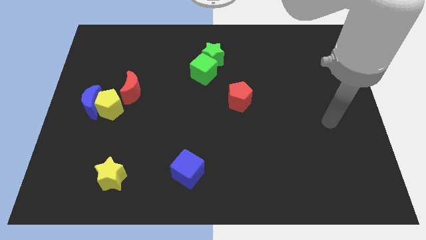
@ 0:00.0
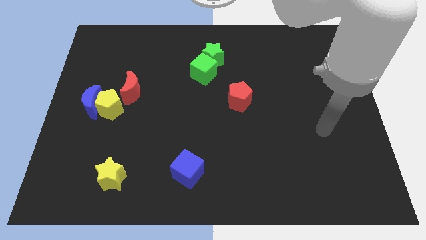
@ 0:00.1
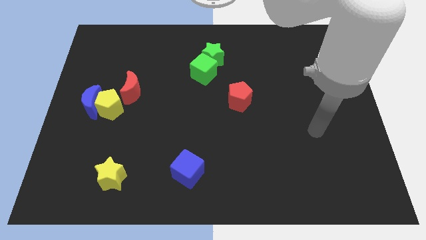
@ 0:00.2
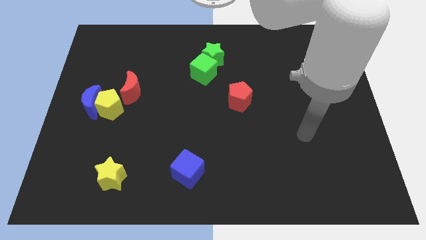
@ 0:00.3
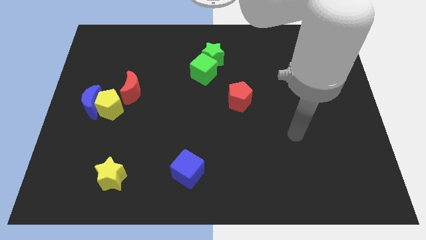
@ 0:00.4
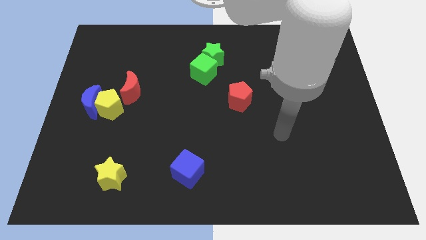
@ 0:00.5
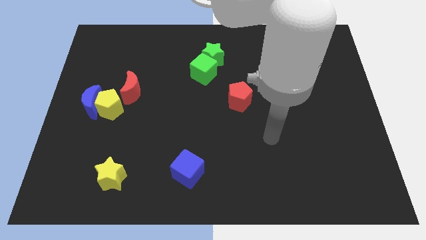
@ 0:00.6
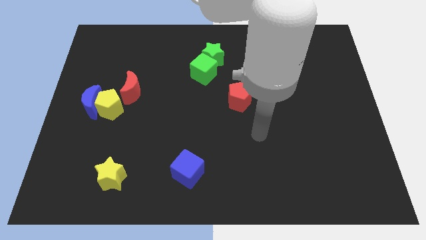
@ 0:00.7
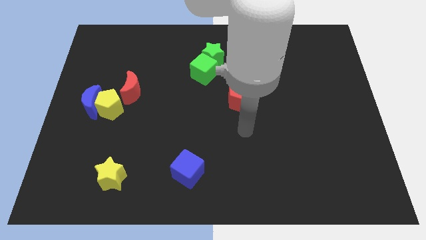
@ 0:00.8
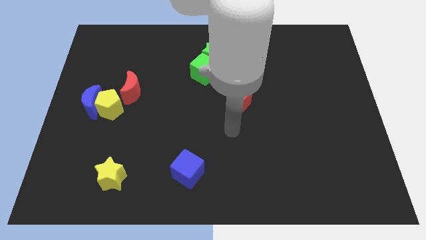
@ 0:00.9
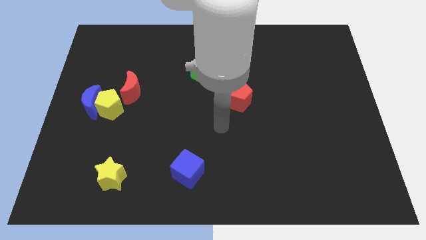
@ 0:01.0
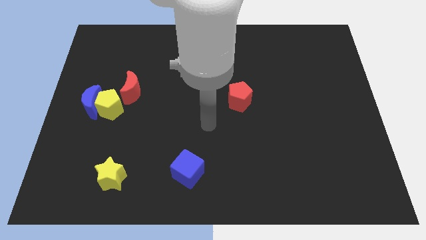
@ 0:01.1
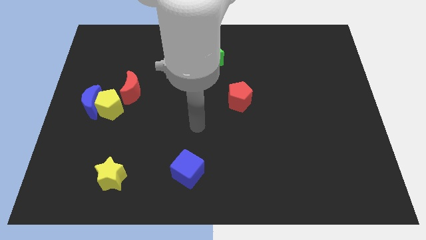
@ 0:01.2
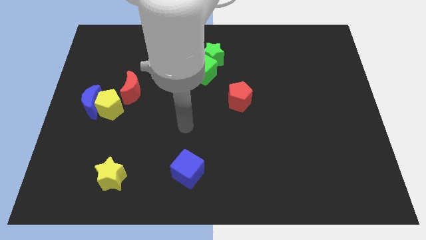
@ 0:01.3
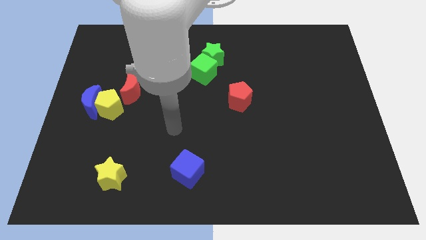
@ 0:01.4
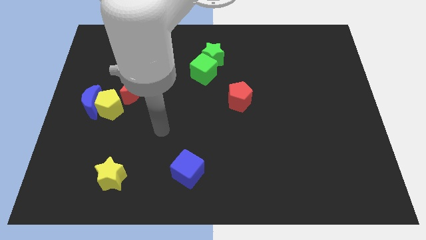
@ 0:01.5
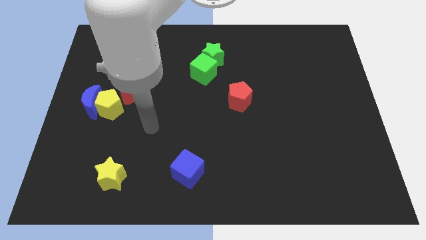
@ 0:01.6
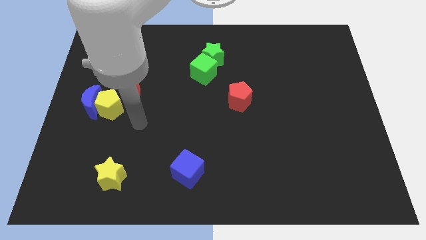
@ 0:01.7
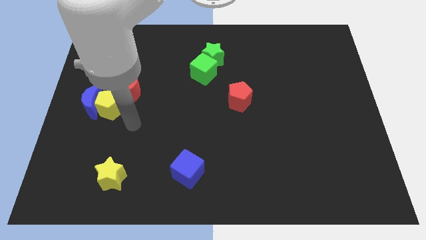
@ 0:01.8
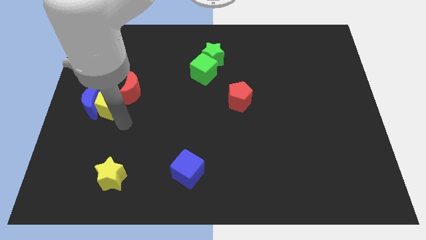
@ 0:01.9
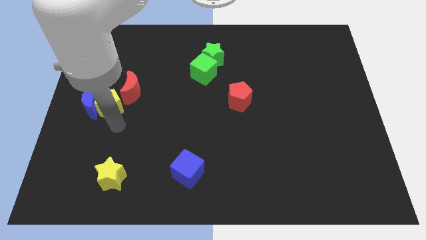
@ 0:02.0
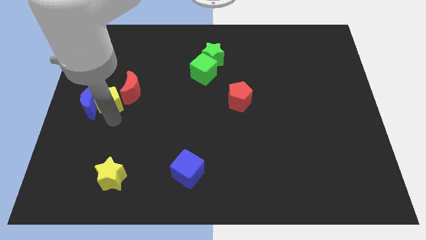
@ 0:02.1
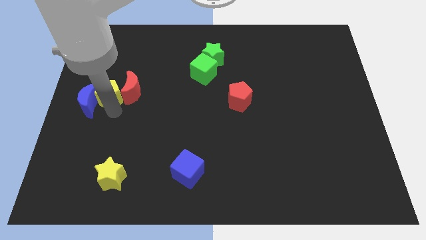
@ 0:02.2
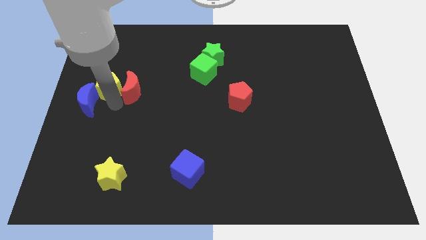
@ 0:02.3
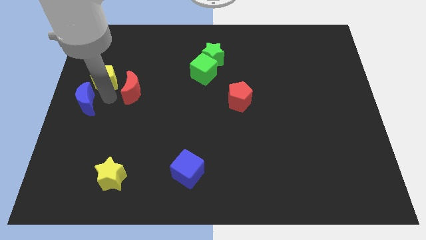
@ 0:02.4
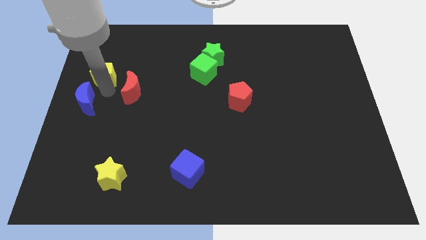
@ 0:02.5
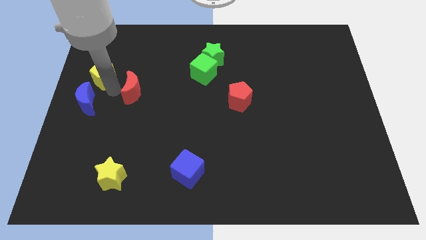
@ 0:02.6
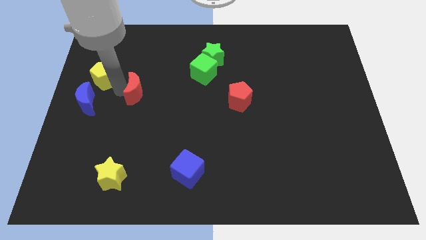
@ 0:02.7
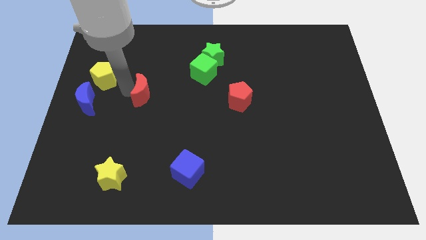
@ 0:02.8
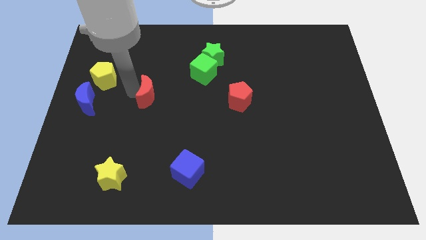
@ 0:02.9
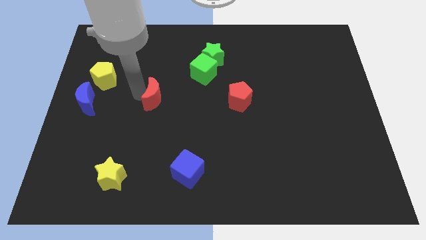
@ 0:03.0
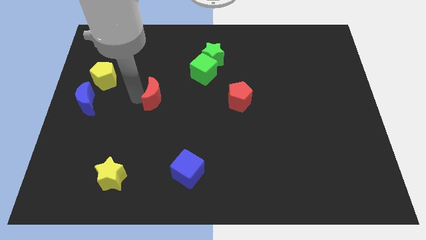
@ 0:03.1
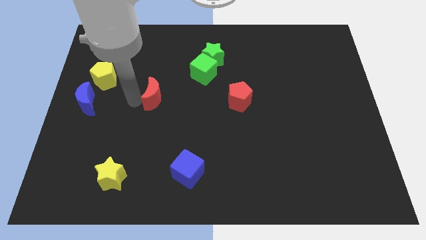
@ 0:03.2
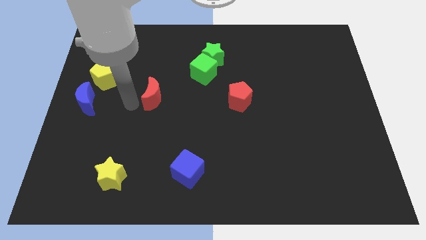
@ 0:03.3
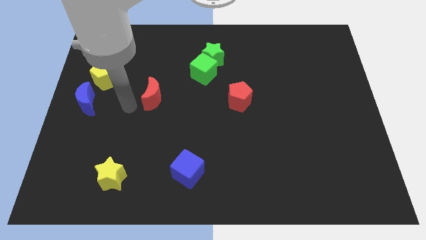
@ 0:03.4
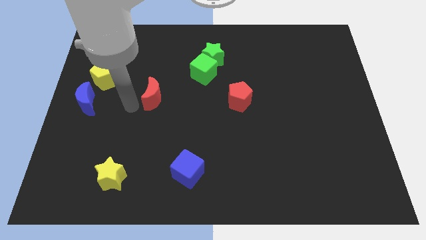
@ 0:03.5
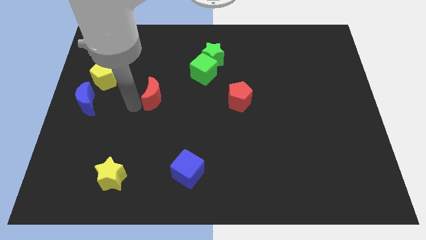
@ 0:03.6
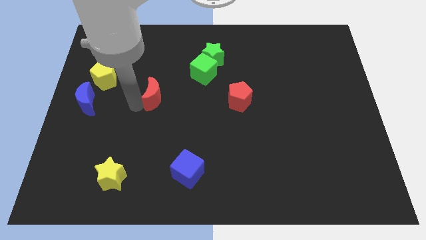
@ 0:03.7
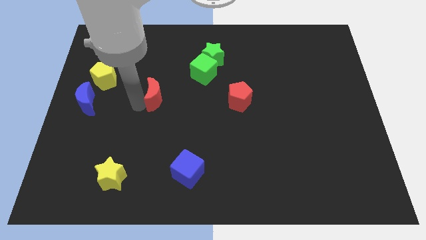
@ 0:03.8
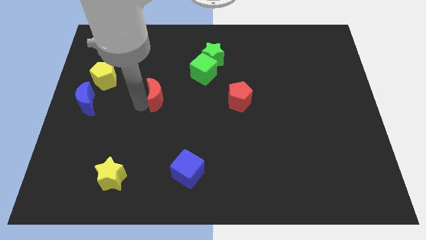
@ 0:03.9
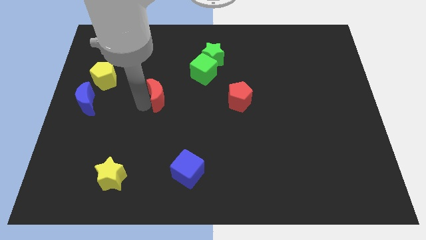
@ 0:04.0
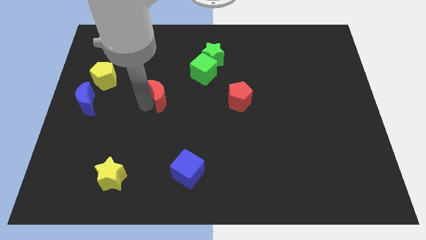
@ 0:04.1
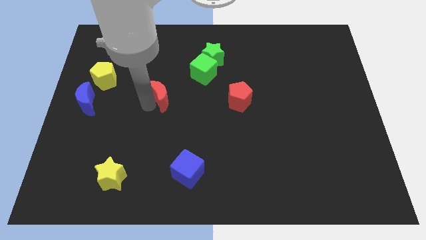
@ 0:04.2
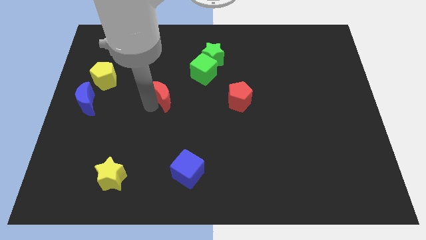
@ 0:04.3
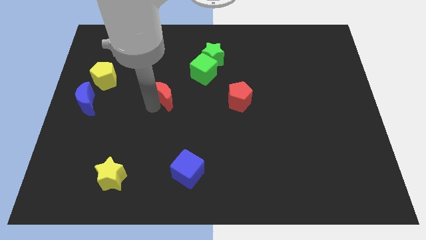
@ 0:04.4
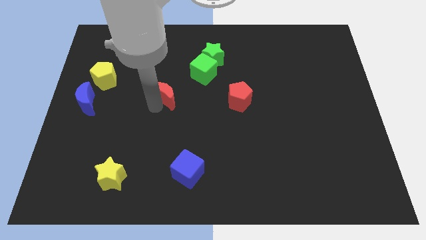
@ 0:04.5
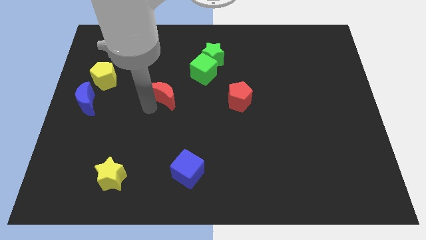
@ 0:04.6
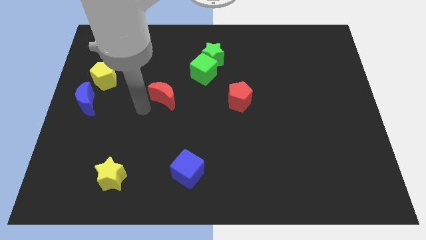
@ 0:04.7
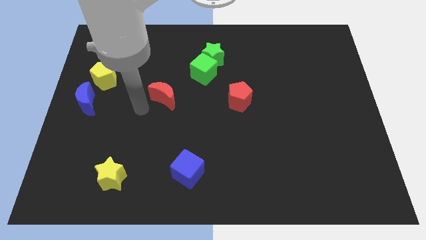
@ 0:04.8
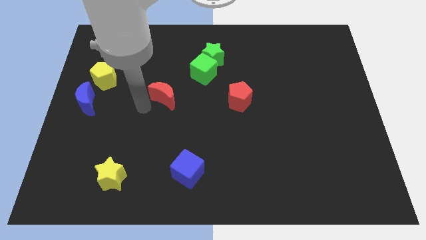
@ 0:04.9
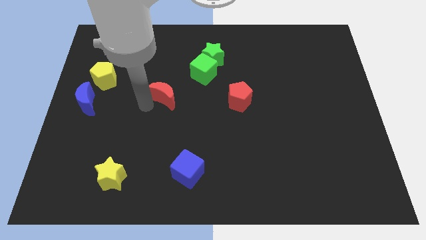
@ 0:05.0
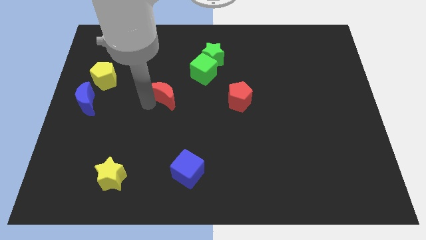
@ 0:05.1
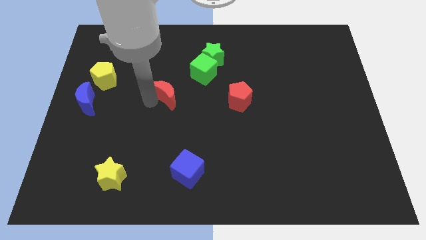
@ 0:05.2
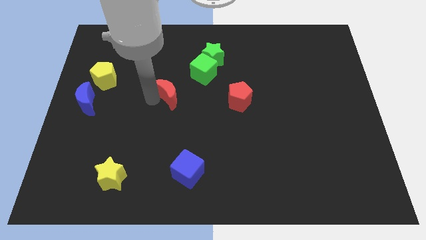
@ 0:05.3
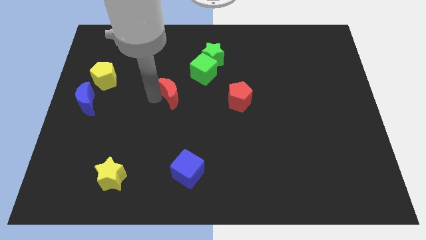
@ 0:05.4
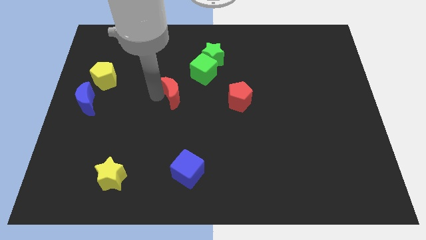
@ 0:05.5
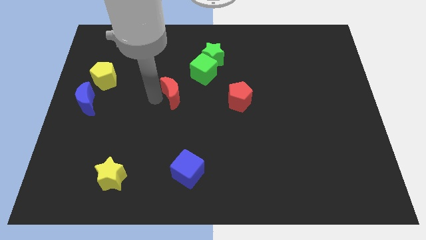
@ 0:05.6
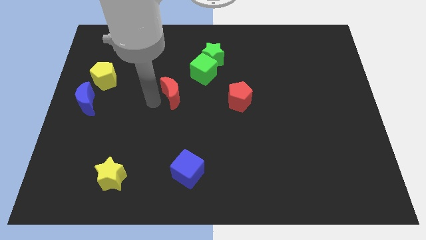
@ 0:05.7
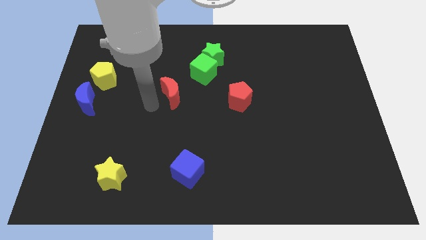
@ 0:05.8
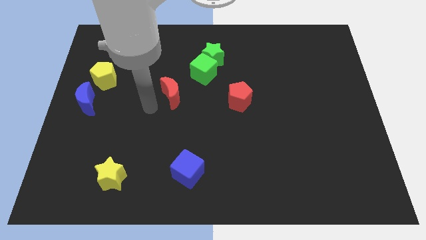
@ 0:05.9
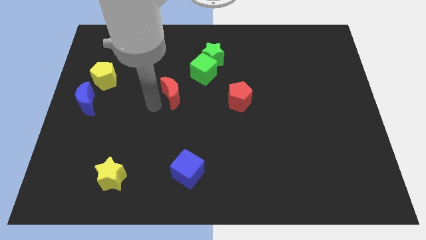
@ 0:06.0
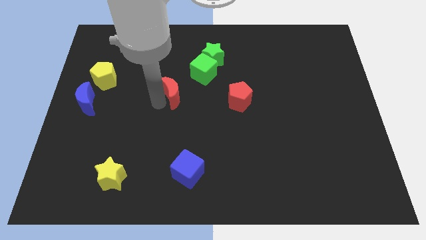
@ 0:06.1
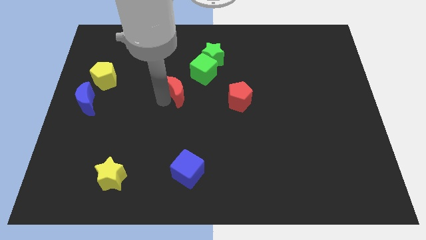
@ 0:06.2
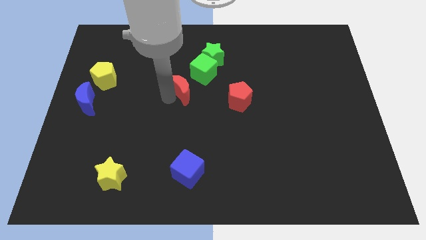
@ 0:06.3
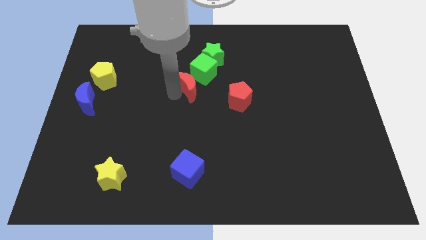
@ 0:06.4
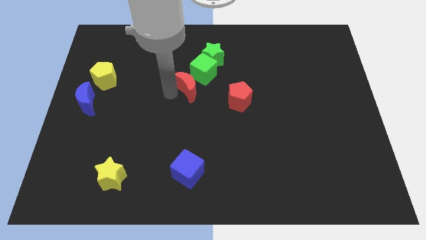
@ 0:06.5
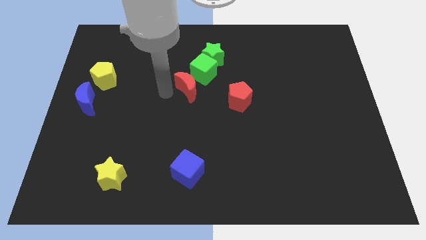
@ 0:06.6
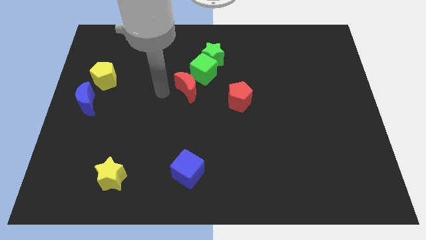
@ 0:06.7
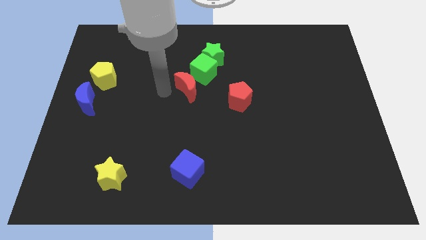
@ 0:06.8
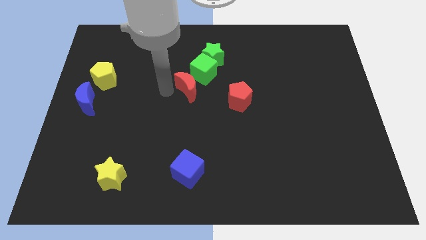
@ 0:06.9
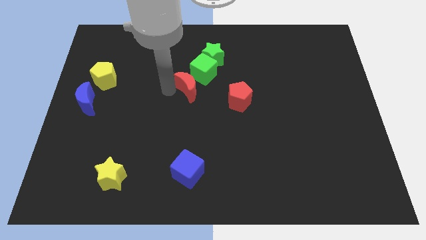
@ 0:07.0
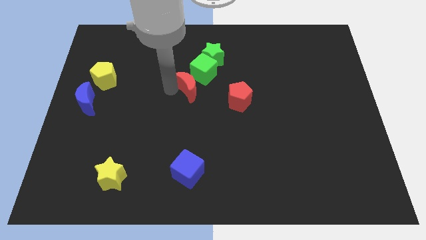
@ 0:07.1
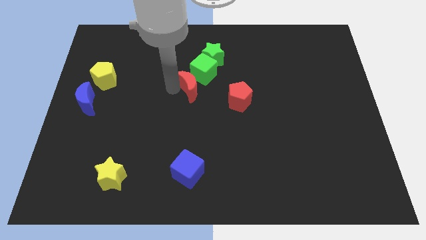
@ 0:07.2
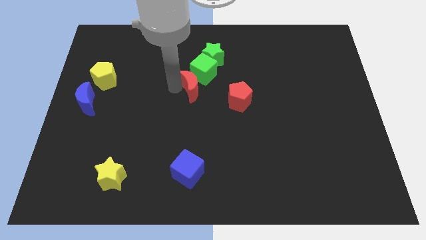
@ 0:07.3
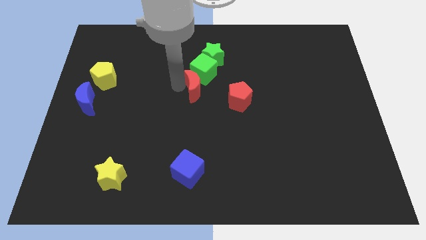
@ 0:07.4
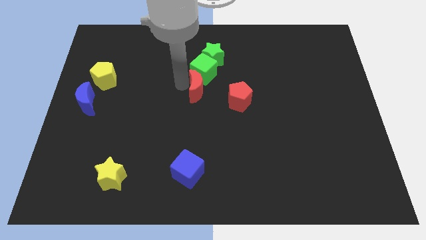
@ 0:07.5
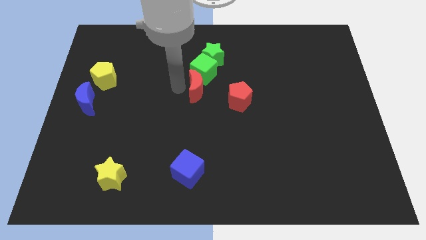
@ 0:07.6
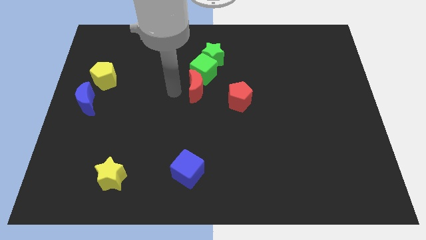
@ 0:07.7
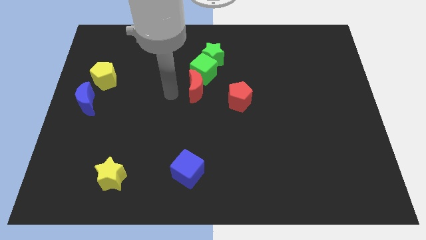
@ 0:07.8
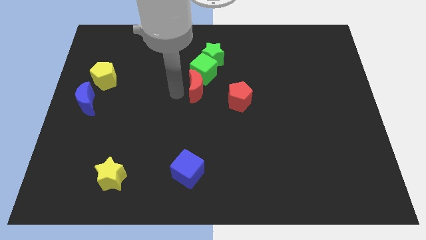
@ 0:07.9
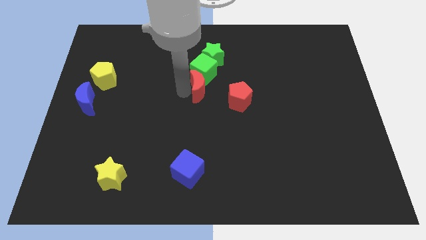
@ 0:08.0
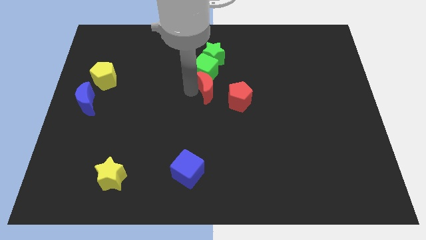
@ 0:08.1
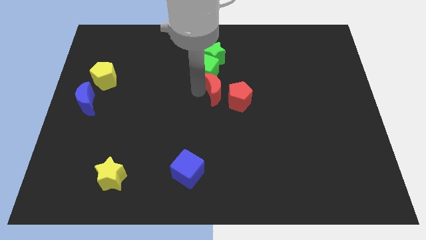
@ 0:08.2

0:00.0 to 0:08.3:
move the red moon right
